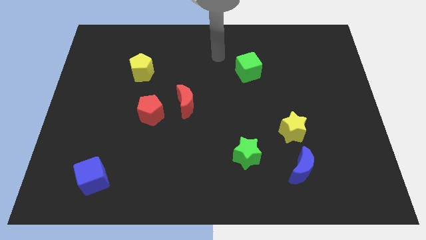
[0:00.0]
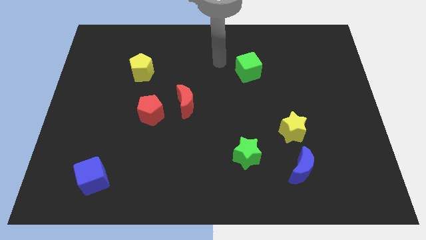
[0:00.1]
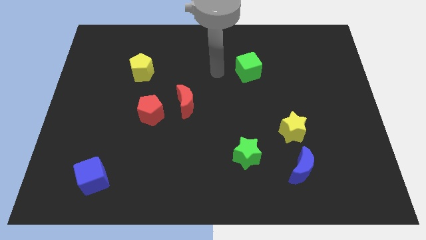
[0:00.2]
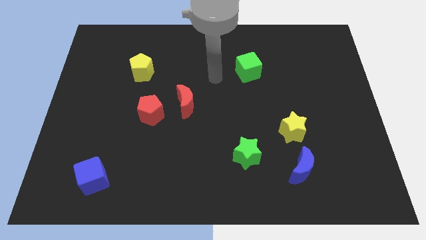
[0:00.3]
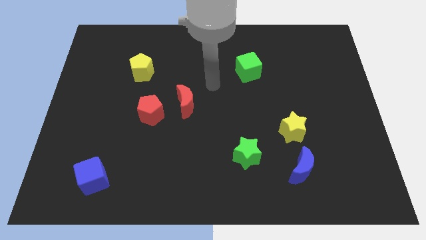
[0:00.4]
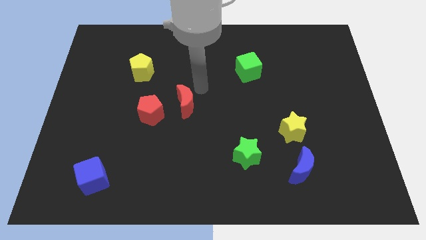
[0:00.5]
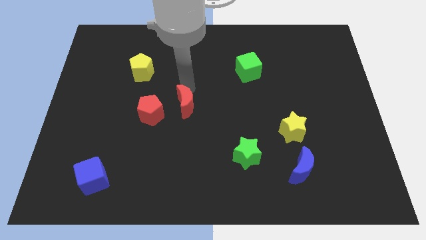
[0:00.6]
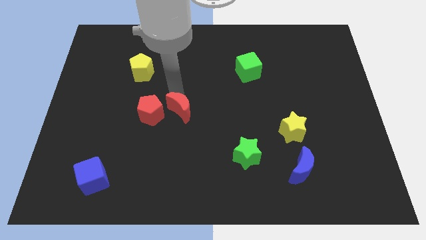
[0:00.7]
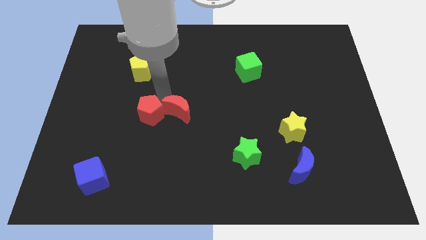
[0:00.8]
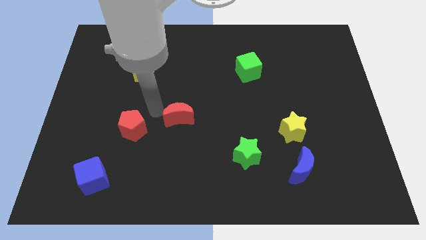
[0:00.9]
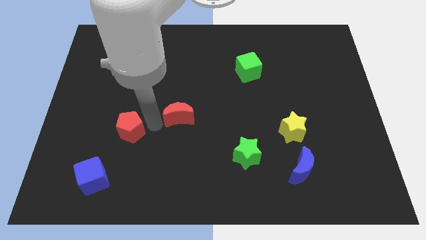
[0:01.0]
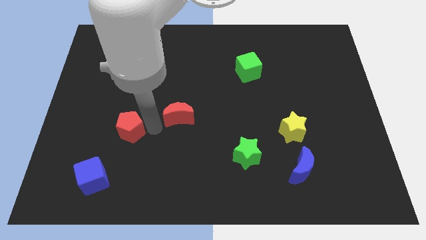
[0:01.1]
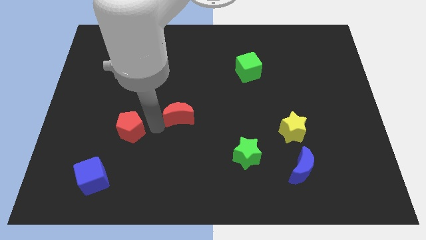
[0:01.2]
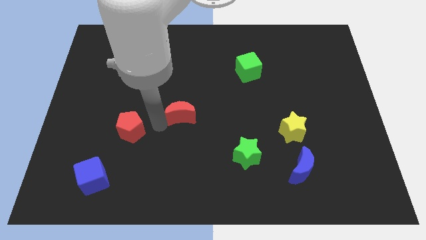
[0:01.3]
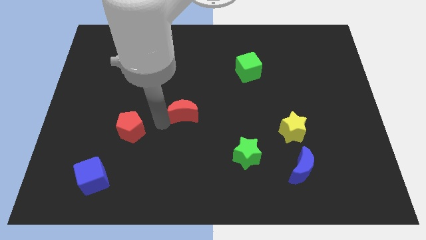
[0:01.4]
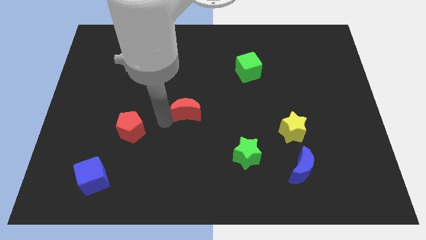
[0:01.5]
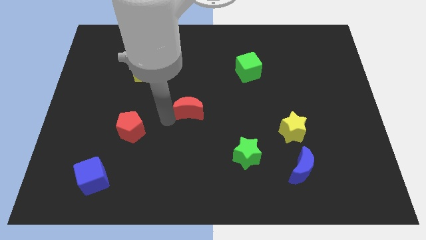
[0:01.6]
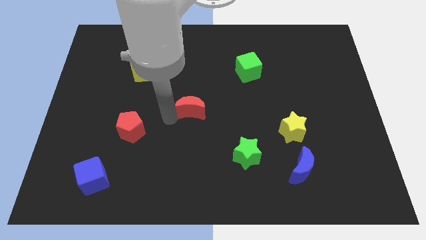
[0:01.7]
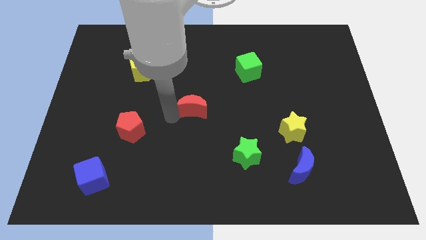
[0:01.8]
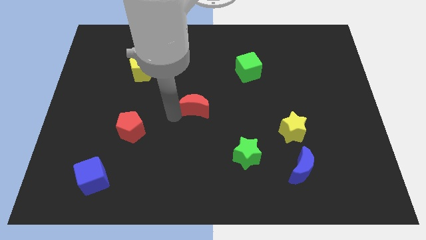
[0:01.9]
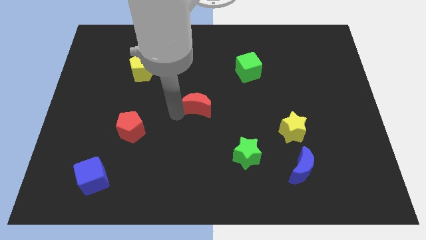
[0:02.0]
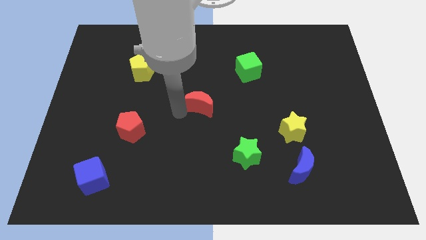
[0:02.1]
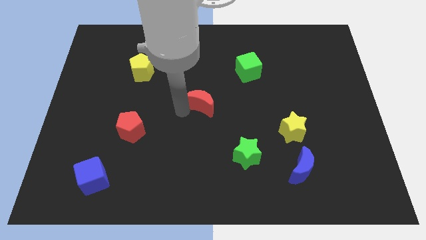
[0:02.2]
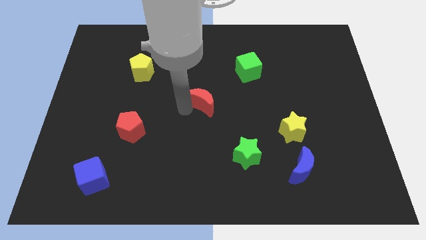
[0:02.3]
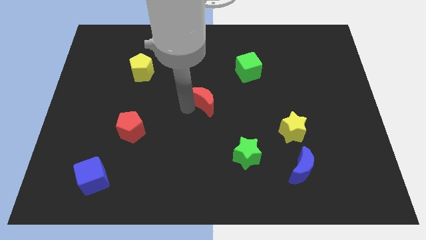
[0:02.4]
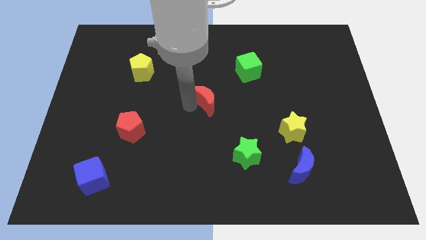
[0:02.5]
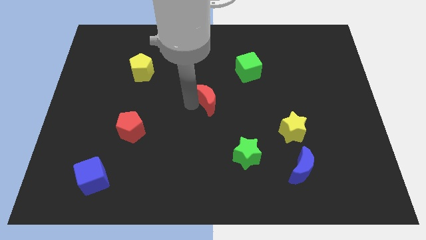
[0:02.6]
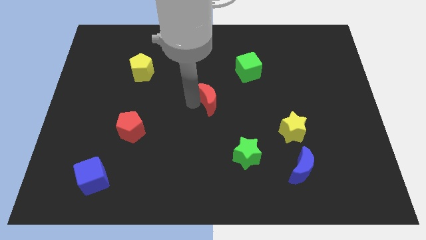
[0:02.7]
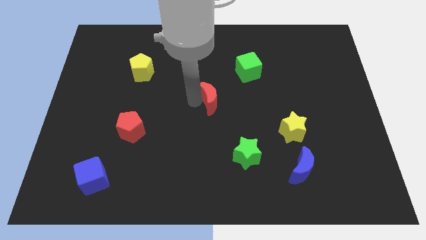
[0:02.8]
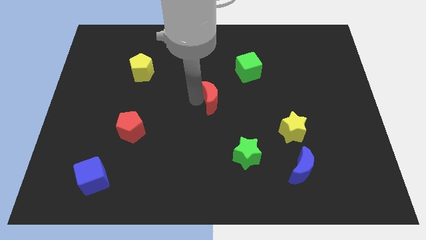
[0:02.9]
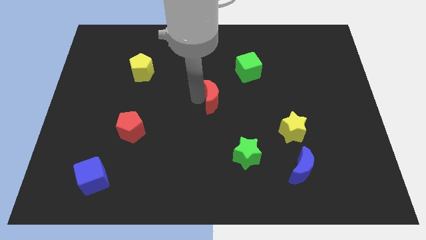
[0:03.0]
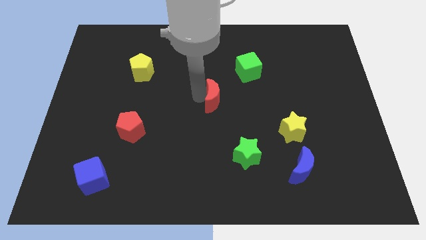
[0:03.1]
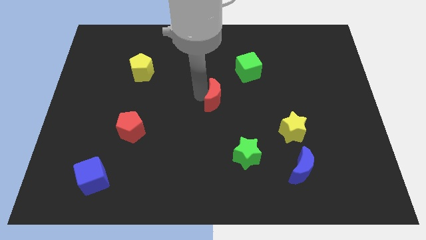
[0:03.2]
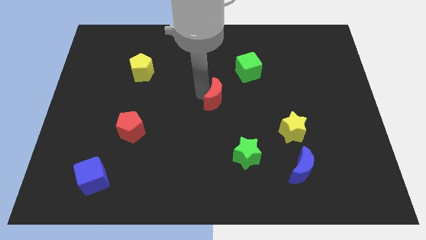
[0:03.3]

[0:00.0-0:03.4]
move the red moon to the right a little bit

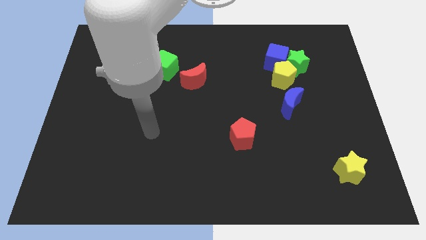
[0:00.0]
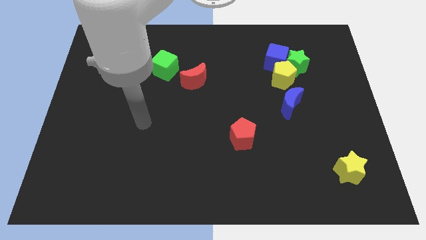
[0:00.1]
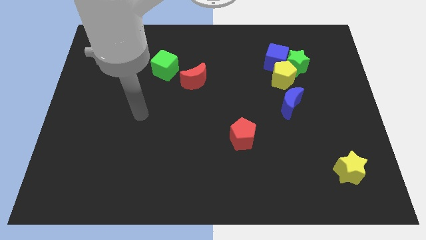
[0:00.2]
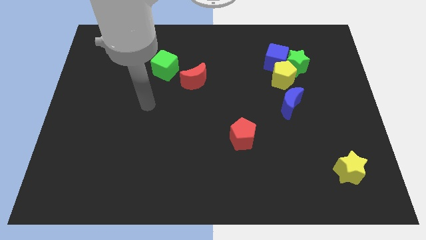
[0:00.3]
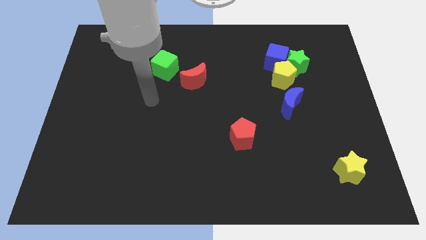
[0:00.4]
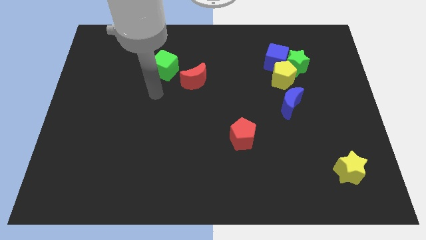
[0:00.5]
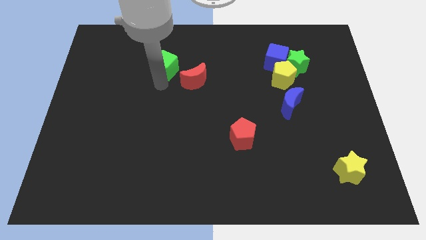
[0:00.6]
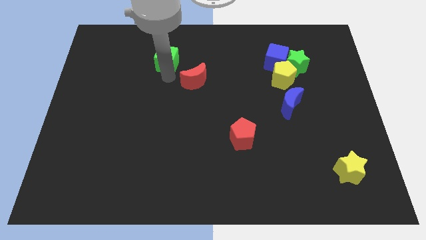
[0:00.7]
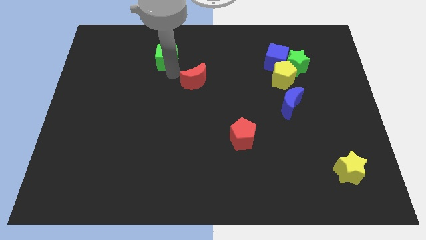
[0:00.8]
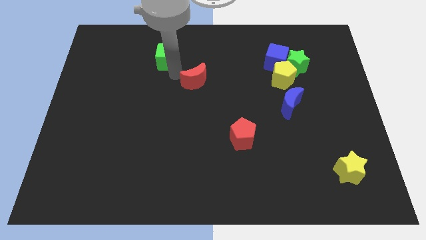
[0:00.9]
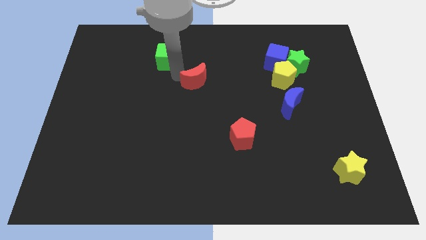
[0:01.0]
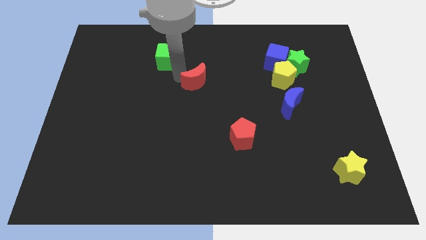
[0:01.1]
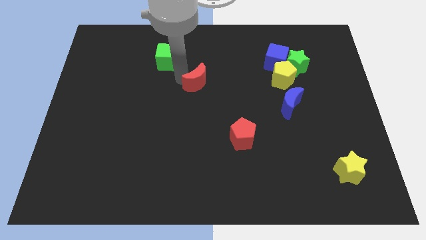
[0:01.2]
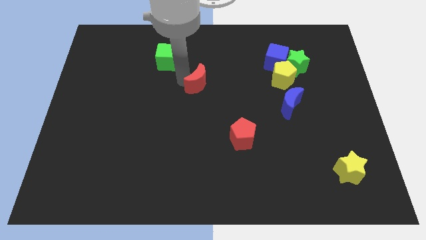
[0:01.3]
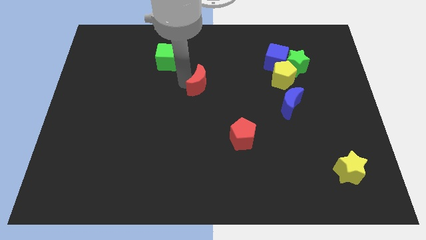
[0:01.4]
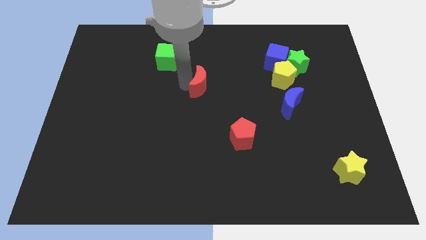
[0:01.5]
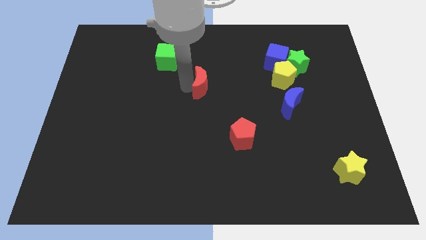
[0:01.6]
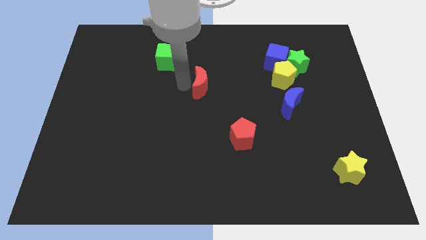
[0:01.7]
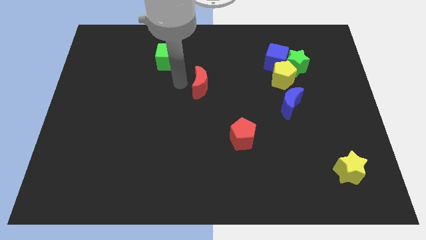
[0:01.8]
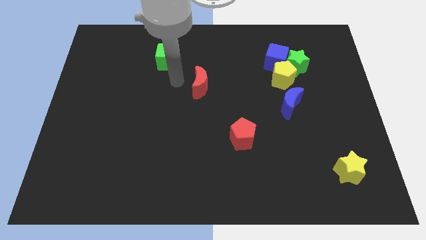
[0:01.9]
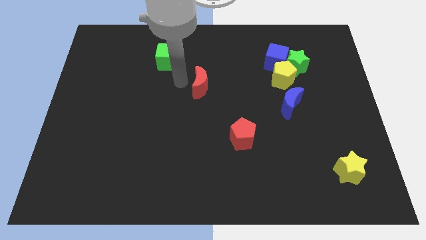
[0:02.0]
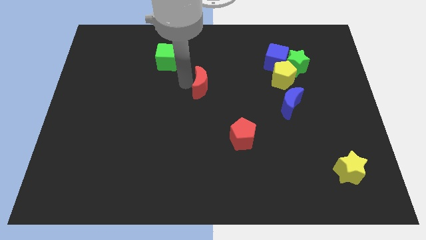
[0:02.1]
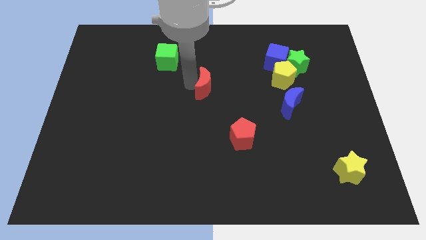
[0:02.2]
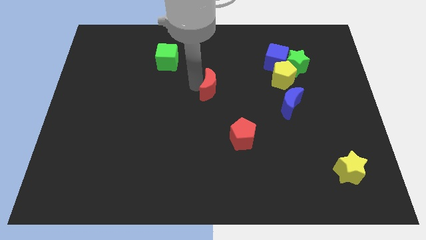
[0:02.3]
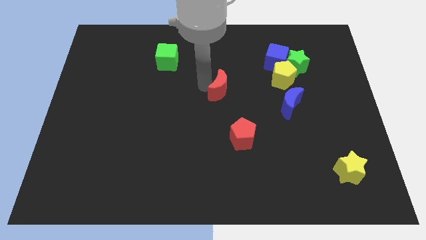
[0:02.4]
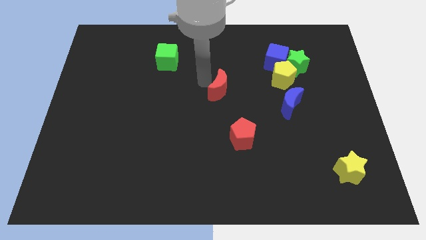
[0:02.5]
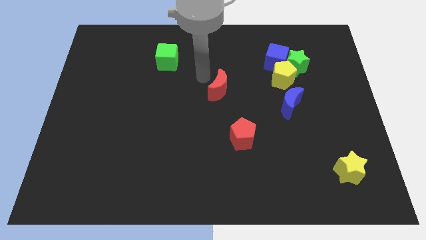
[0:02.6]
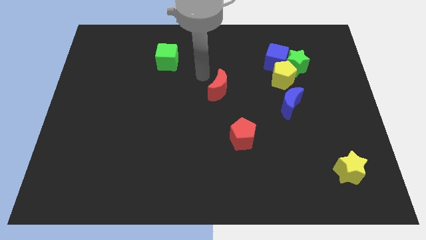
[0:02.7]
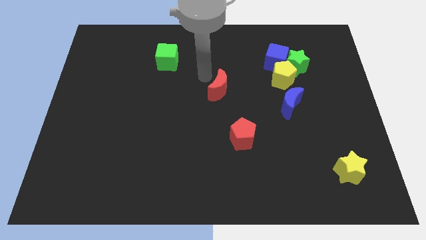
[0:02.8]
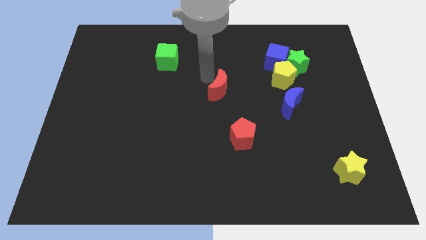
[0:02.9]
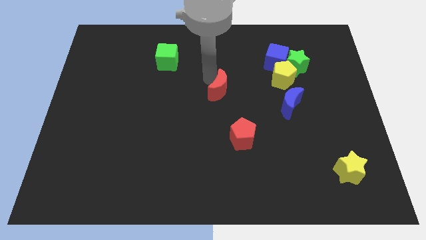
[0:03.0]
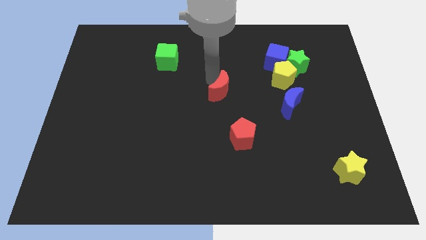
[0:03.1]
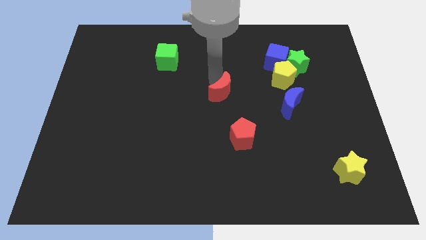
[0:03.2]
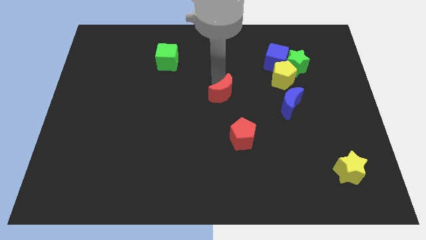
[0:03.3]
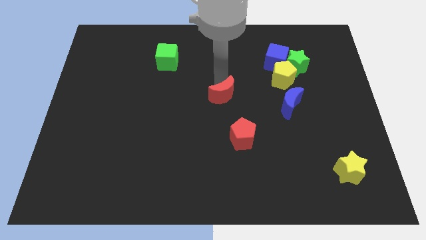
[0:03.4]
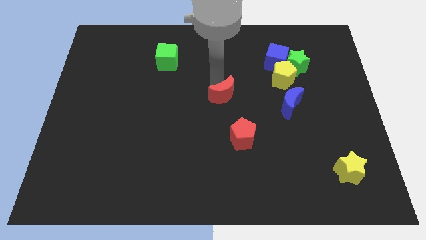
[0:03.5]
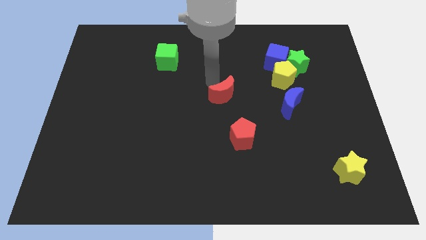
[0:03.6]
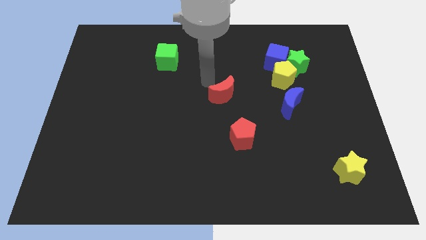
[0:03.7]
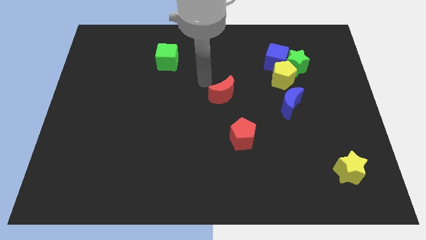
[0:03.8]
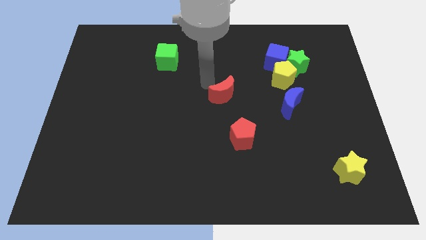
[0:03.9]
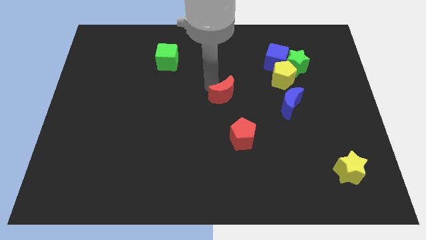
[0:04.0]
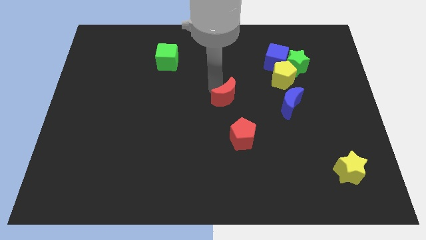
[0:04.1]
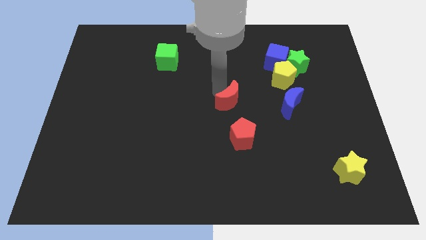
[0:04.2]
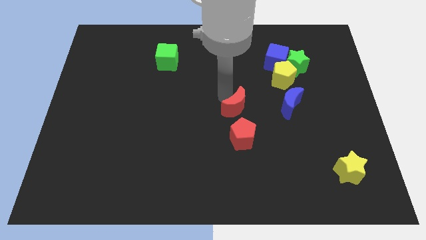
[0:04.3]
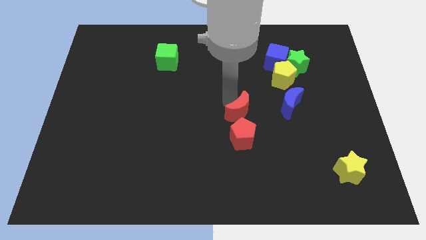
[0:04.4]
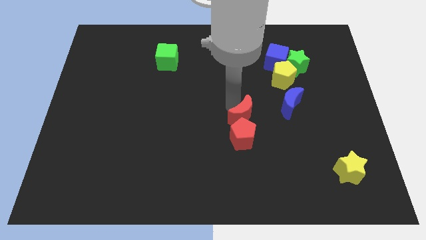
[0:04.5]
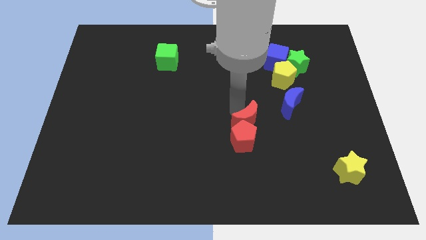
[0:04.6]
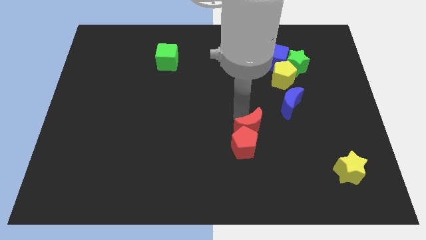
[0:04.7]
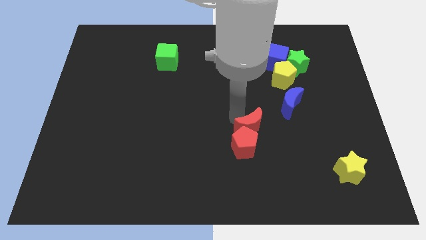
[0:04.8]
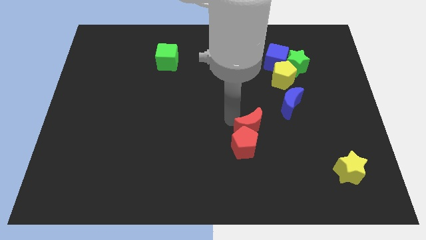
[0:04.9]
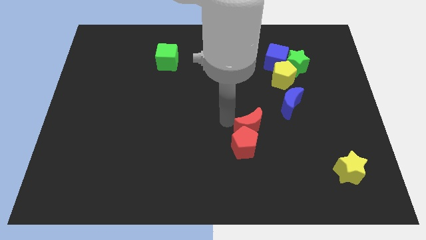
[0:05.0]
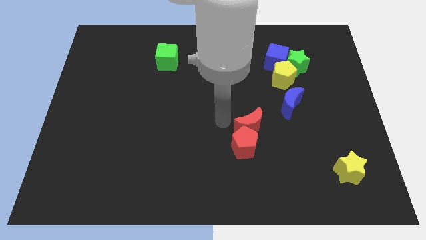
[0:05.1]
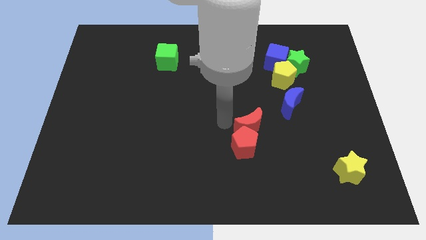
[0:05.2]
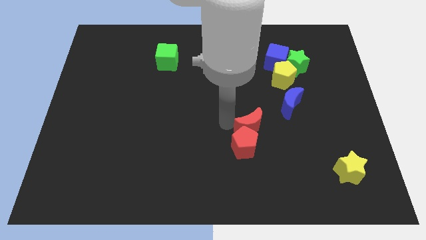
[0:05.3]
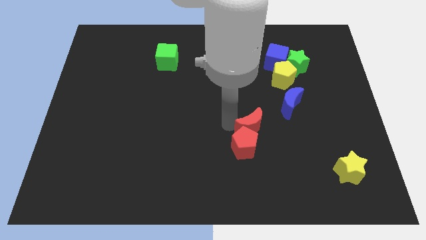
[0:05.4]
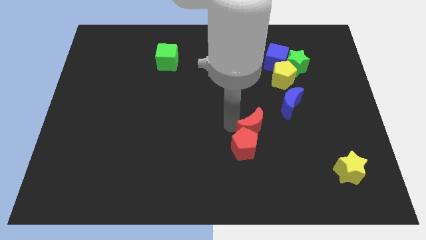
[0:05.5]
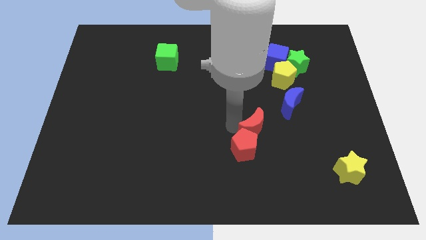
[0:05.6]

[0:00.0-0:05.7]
move the red moon downwards and right diagonally
